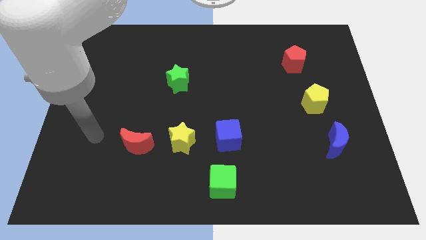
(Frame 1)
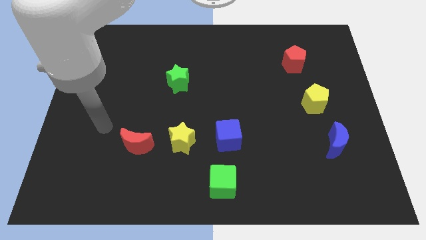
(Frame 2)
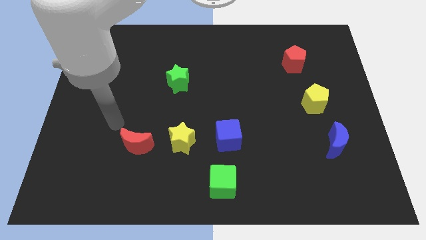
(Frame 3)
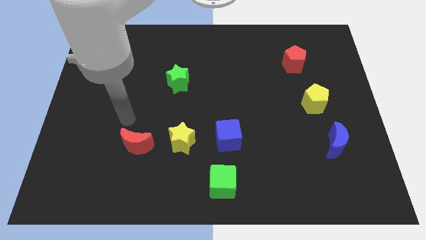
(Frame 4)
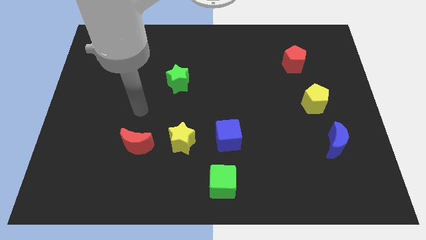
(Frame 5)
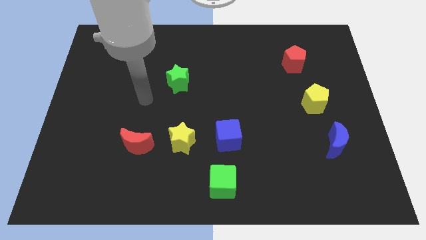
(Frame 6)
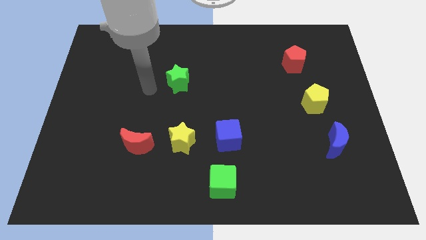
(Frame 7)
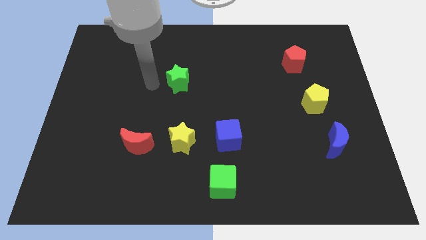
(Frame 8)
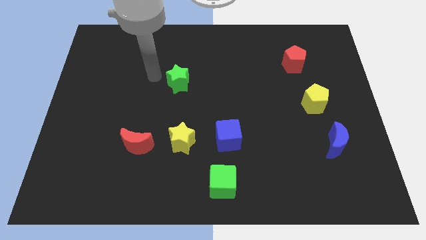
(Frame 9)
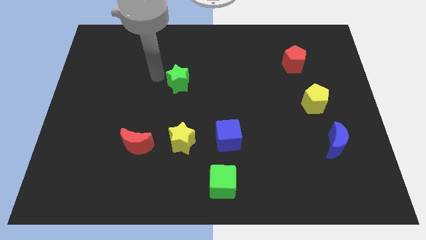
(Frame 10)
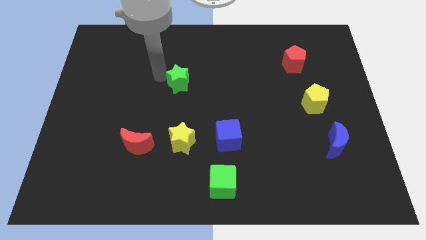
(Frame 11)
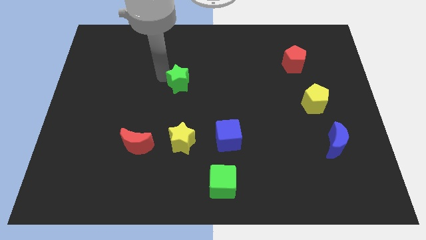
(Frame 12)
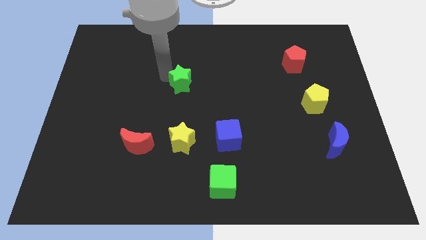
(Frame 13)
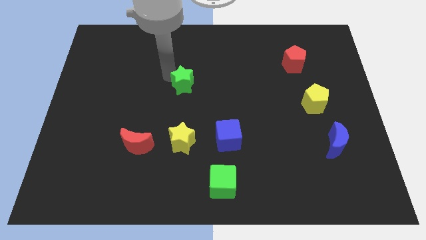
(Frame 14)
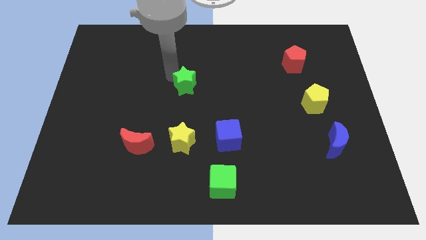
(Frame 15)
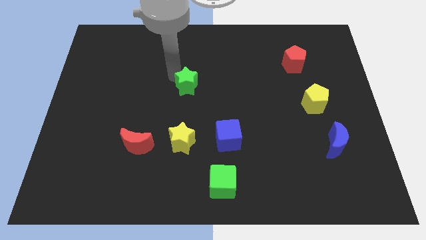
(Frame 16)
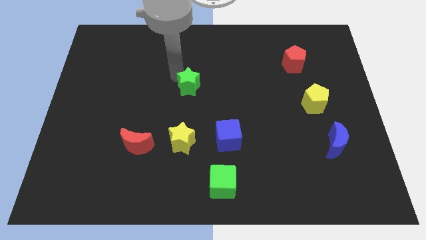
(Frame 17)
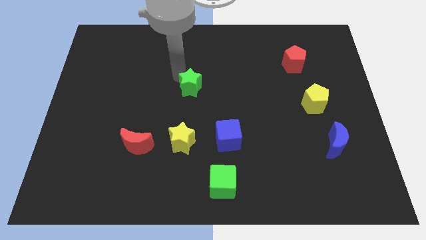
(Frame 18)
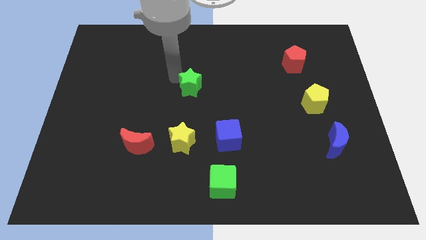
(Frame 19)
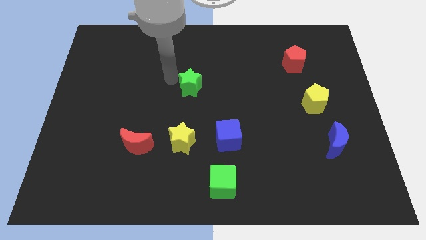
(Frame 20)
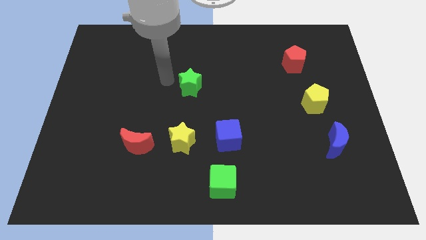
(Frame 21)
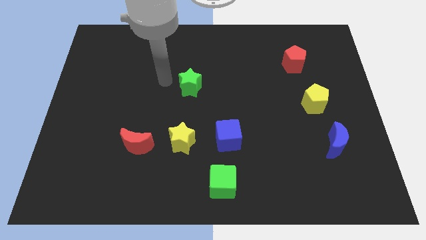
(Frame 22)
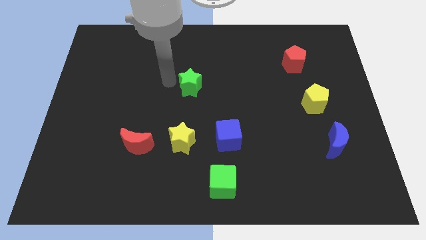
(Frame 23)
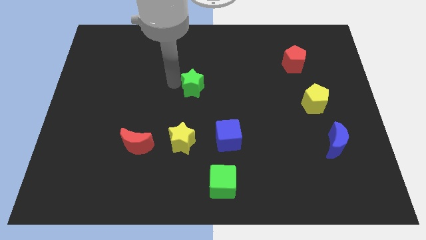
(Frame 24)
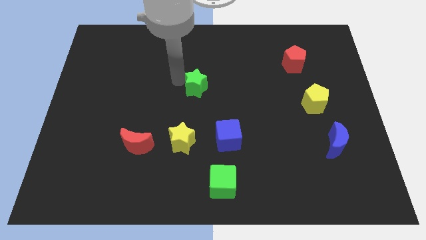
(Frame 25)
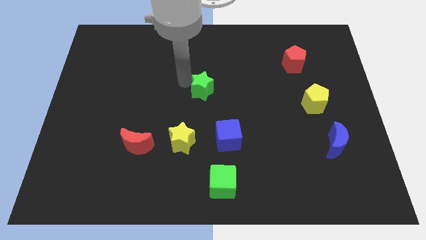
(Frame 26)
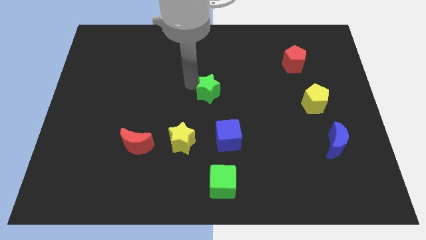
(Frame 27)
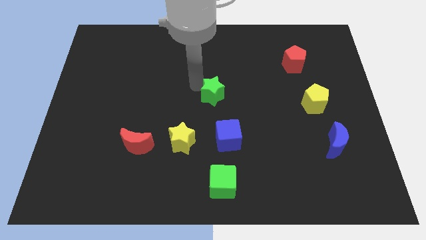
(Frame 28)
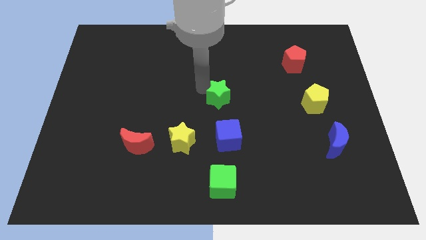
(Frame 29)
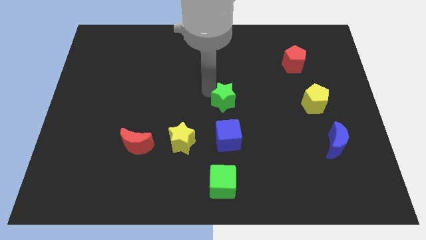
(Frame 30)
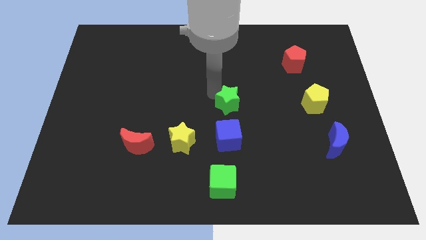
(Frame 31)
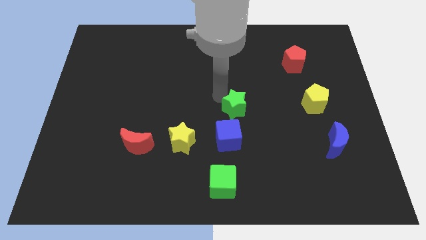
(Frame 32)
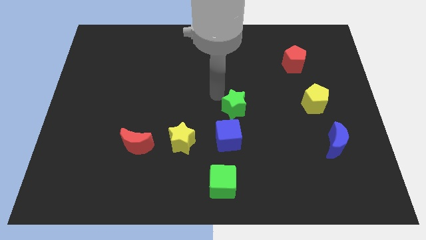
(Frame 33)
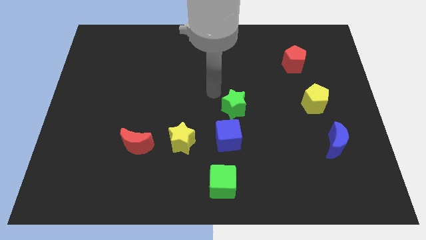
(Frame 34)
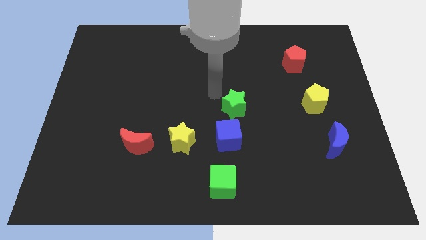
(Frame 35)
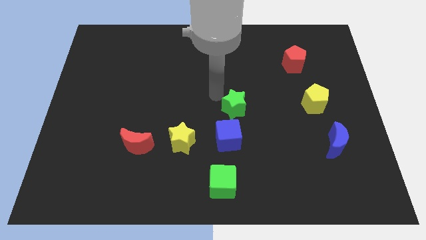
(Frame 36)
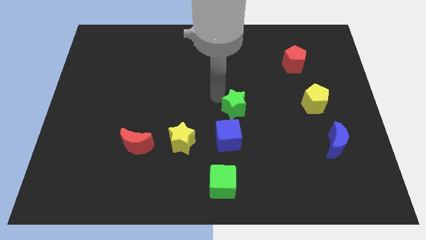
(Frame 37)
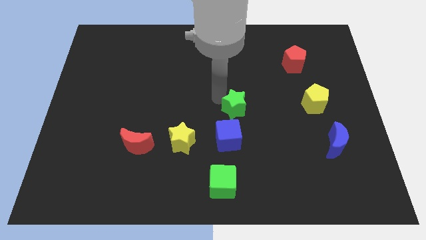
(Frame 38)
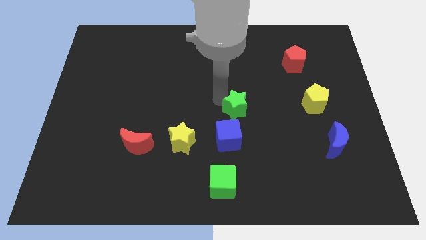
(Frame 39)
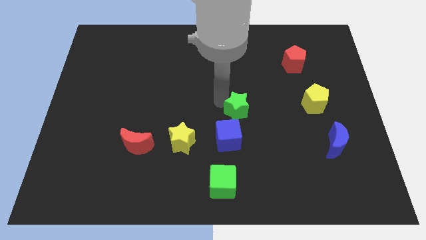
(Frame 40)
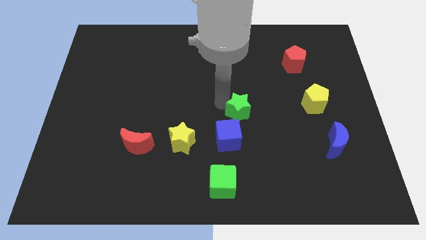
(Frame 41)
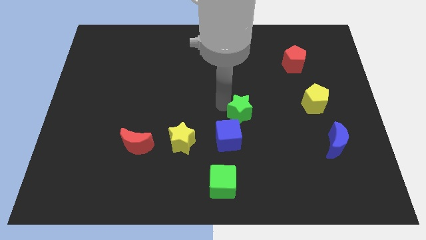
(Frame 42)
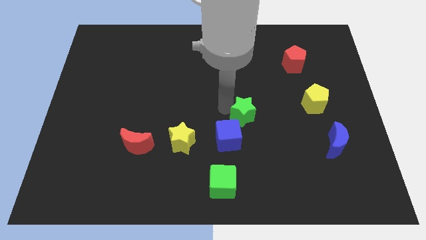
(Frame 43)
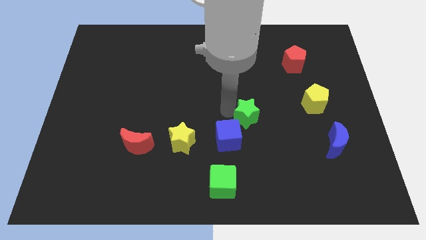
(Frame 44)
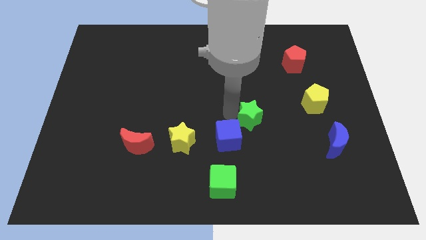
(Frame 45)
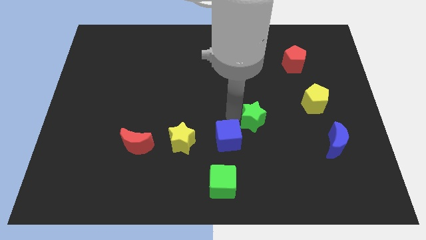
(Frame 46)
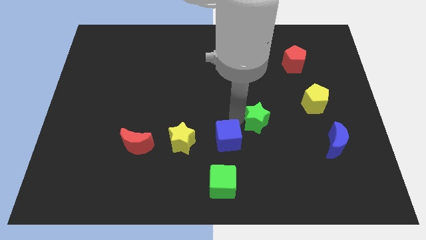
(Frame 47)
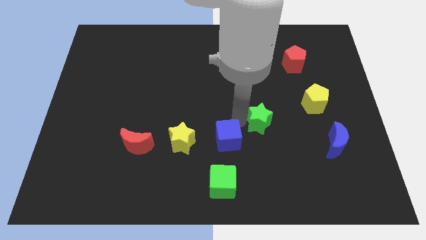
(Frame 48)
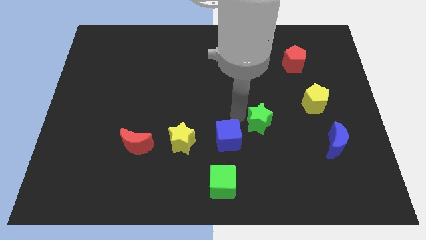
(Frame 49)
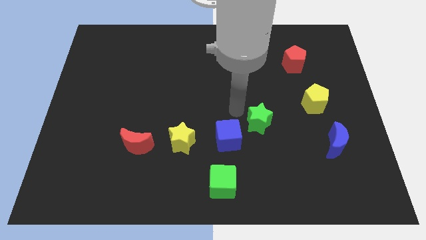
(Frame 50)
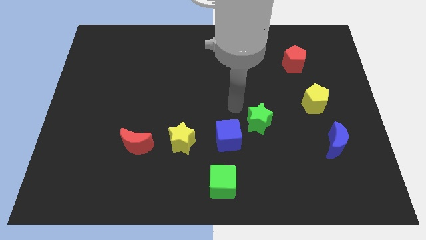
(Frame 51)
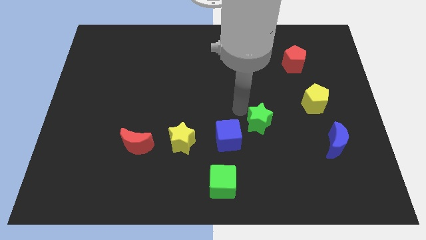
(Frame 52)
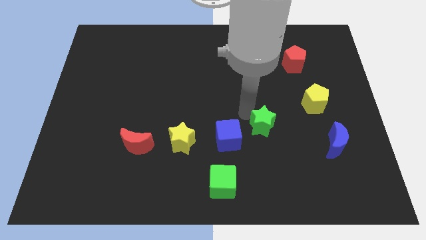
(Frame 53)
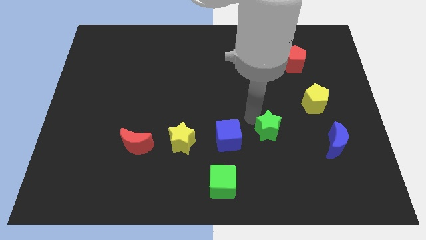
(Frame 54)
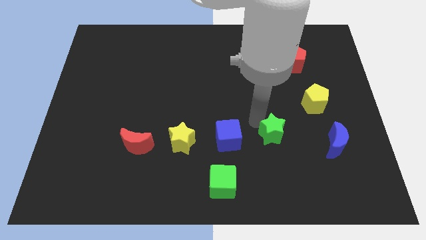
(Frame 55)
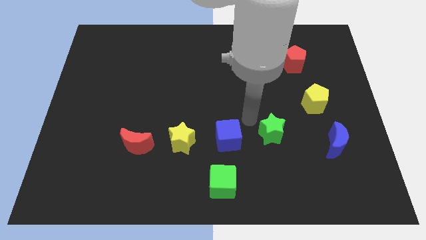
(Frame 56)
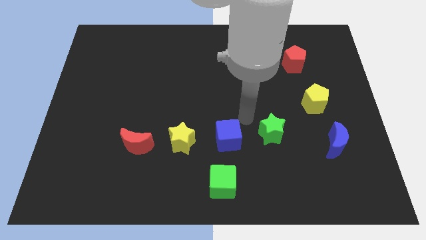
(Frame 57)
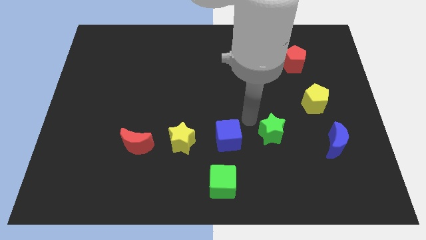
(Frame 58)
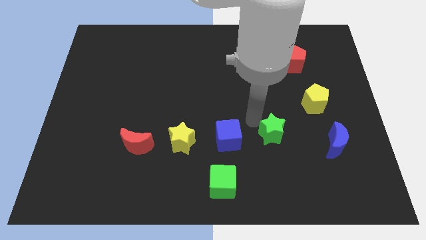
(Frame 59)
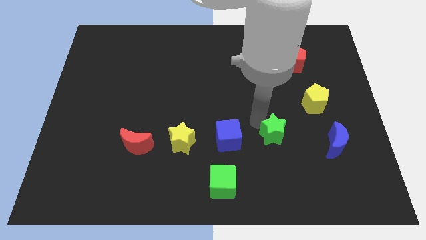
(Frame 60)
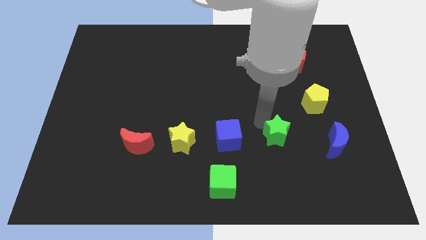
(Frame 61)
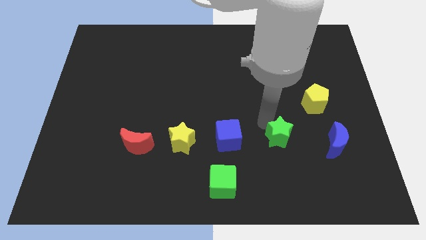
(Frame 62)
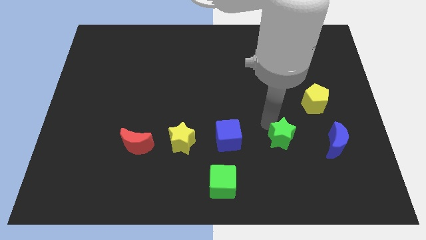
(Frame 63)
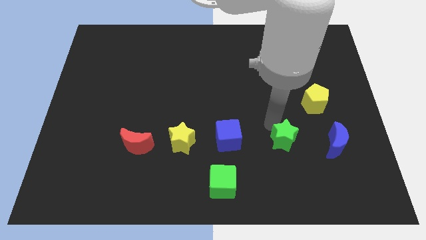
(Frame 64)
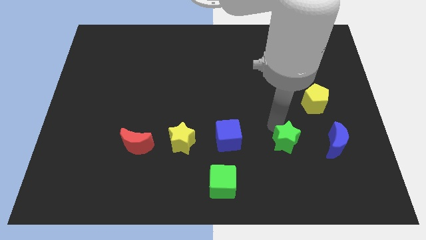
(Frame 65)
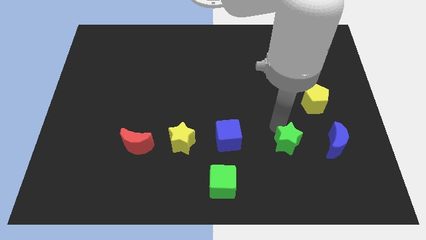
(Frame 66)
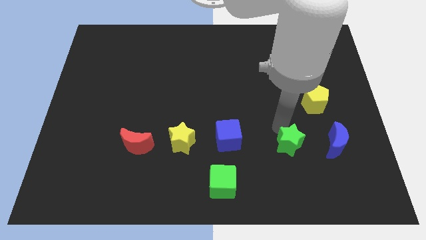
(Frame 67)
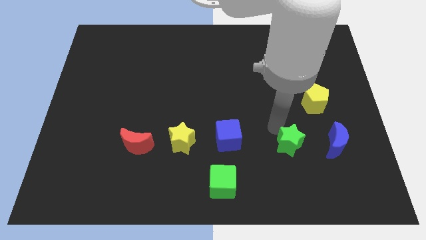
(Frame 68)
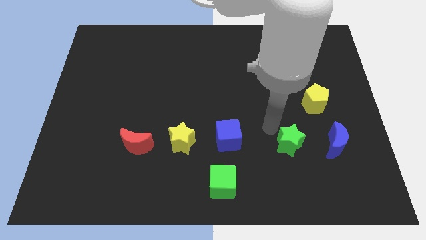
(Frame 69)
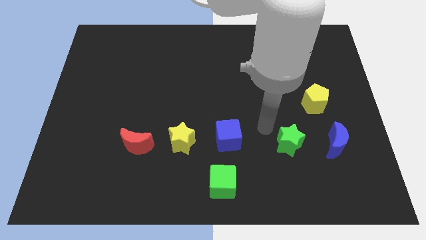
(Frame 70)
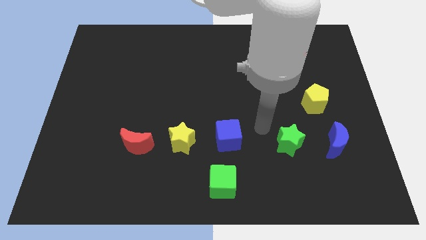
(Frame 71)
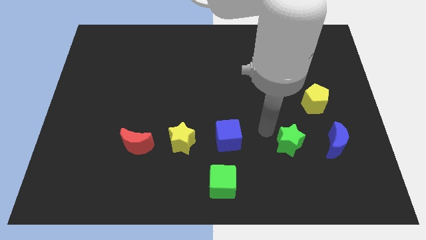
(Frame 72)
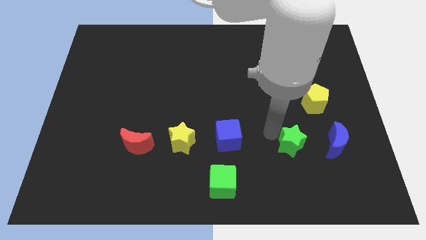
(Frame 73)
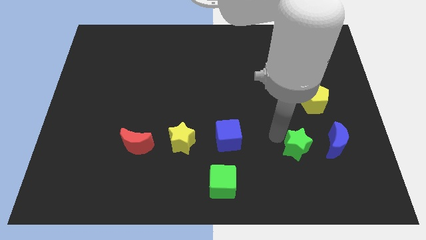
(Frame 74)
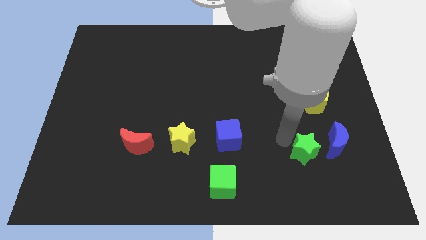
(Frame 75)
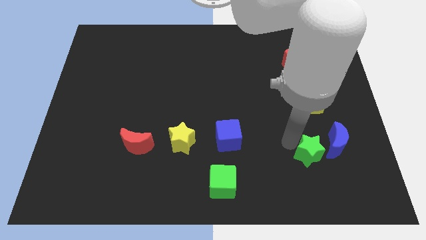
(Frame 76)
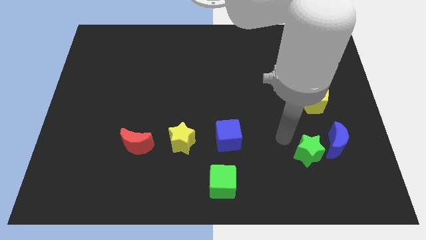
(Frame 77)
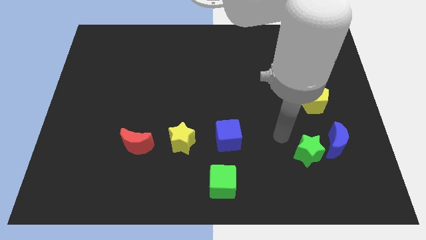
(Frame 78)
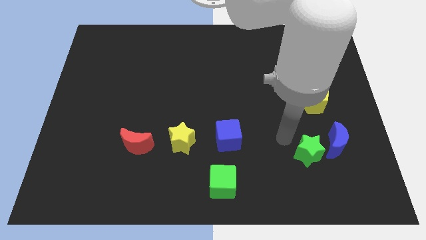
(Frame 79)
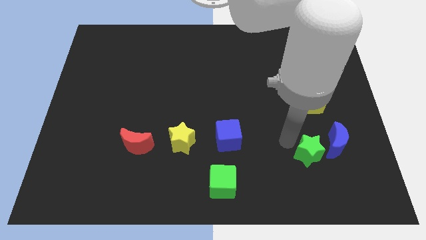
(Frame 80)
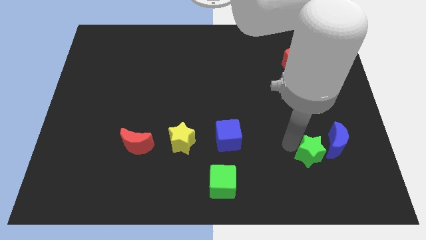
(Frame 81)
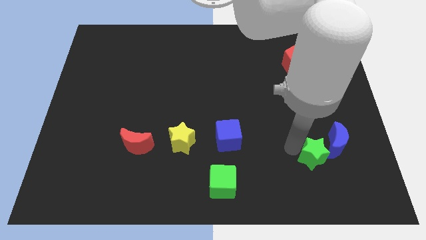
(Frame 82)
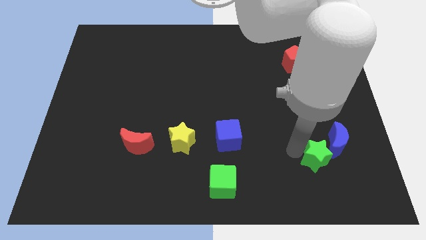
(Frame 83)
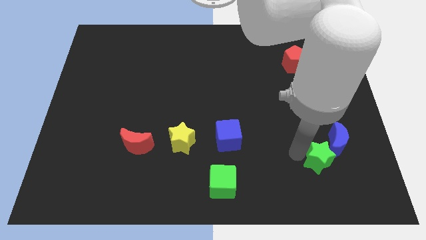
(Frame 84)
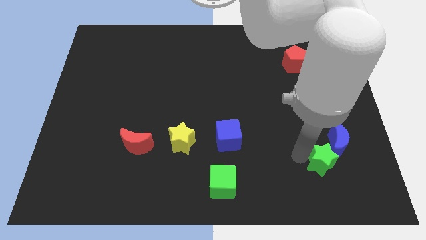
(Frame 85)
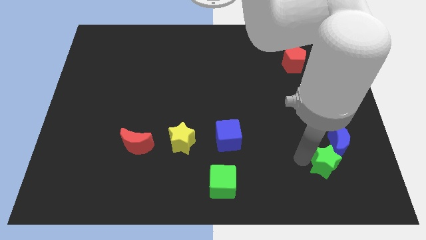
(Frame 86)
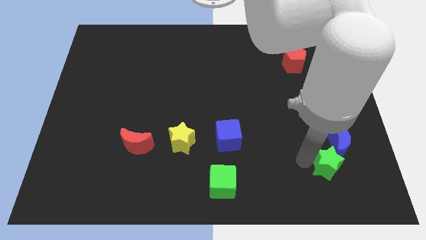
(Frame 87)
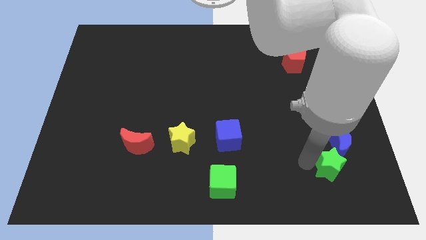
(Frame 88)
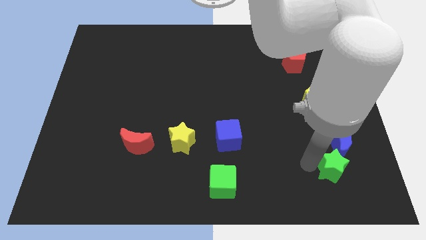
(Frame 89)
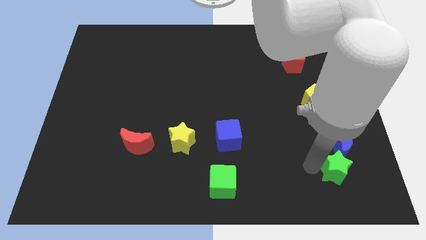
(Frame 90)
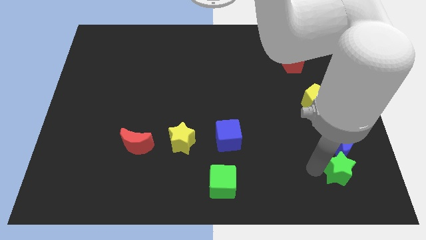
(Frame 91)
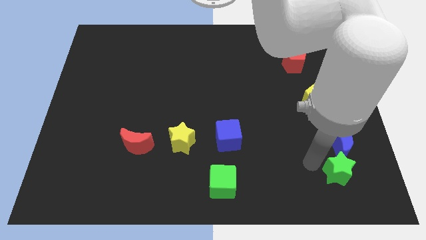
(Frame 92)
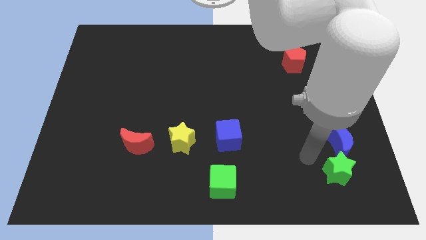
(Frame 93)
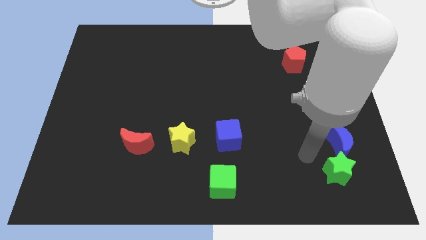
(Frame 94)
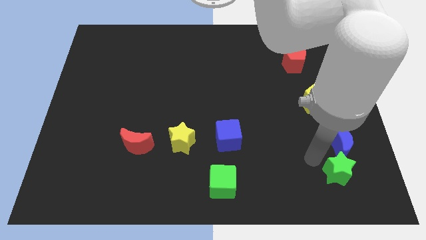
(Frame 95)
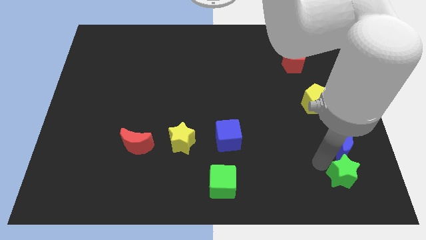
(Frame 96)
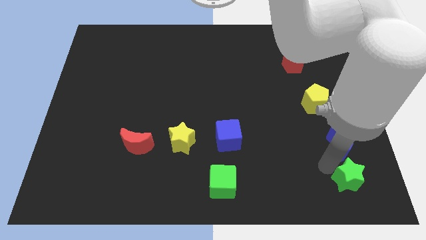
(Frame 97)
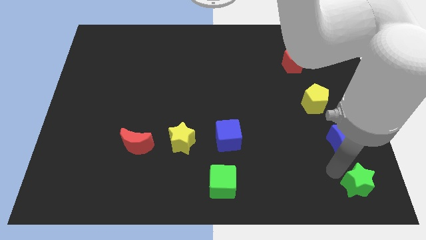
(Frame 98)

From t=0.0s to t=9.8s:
move the green star to the lower right corner
